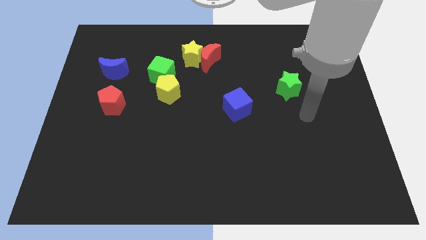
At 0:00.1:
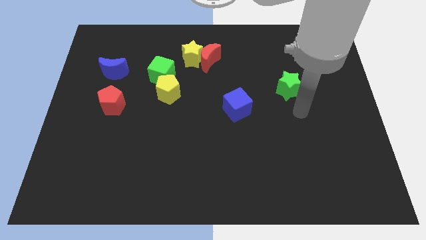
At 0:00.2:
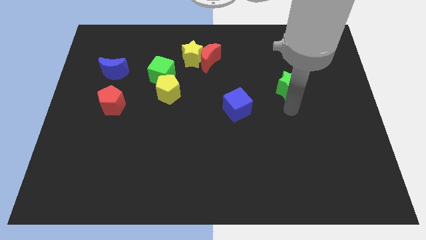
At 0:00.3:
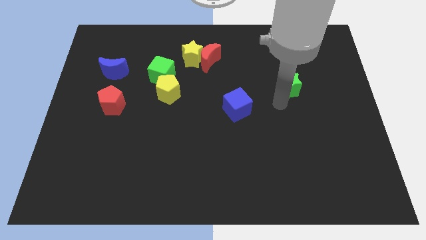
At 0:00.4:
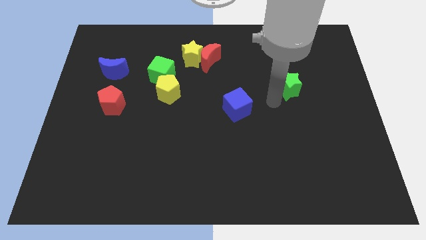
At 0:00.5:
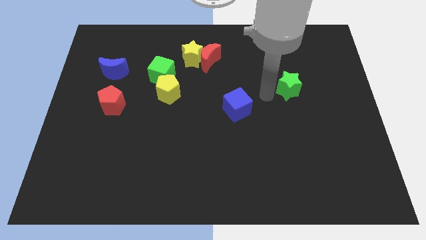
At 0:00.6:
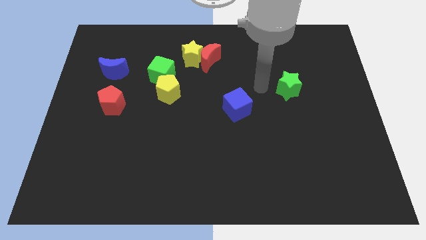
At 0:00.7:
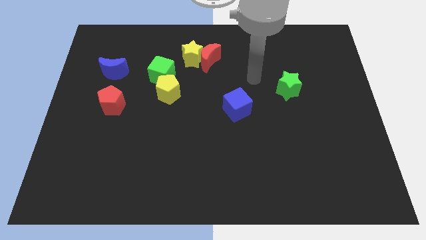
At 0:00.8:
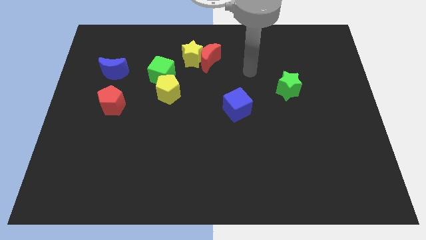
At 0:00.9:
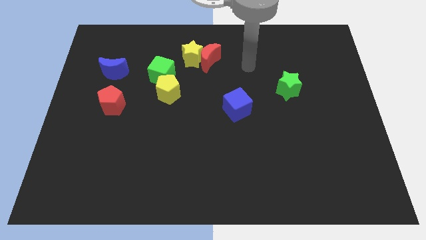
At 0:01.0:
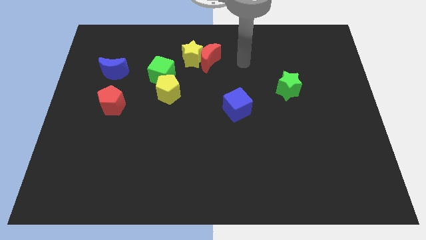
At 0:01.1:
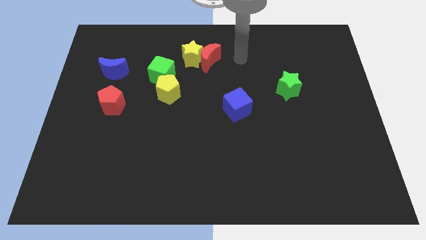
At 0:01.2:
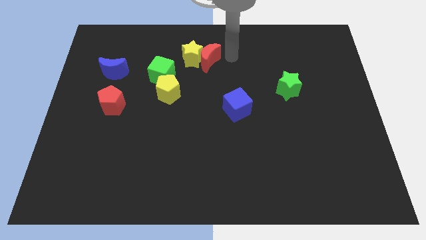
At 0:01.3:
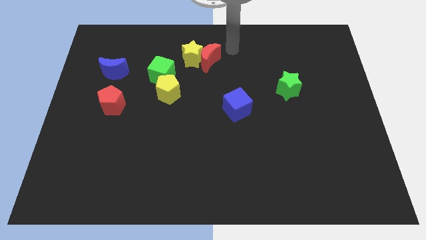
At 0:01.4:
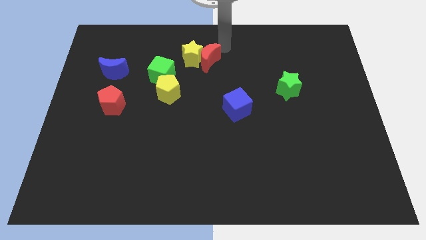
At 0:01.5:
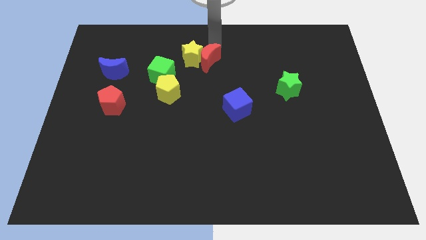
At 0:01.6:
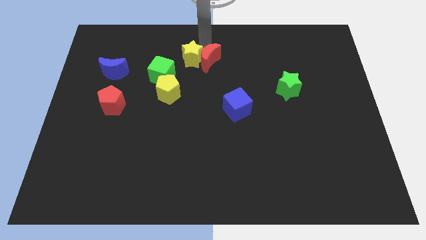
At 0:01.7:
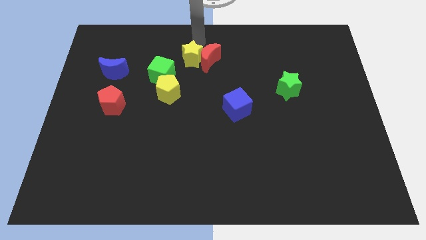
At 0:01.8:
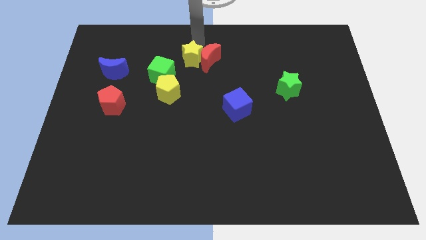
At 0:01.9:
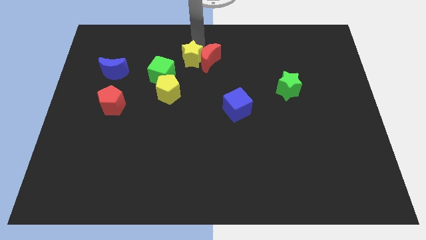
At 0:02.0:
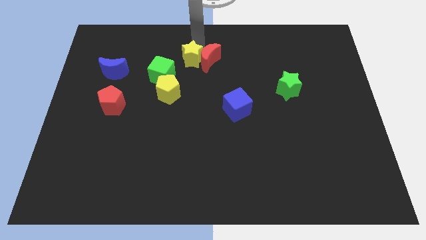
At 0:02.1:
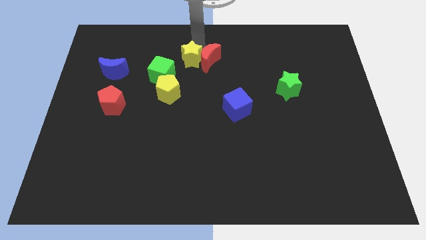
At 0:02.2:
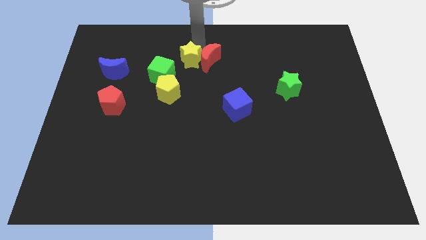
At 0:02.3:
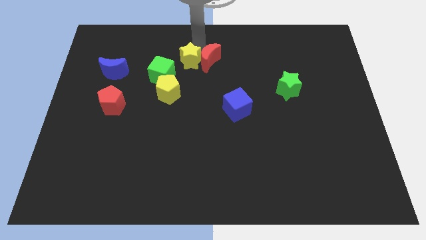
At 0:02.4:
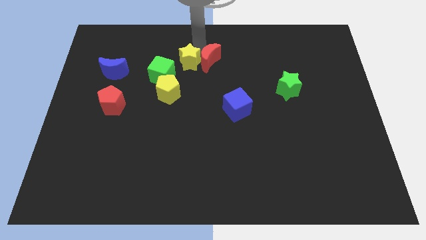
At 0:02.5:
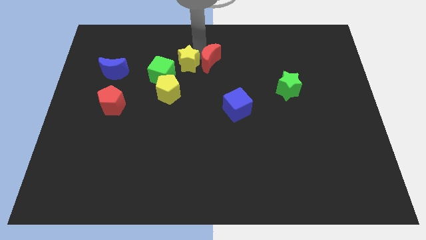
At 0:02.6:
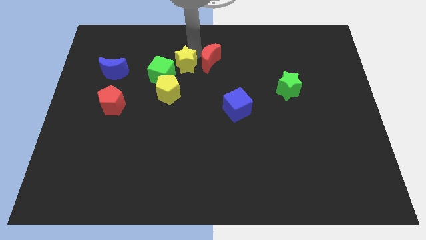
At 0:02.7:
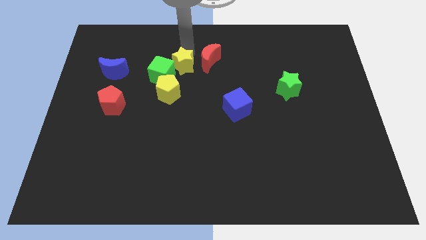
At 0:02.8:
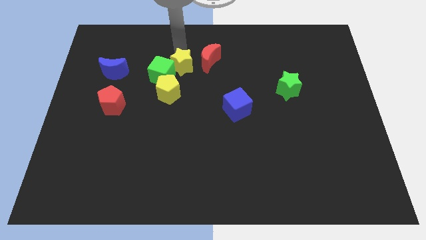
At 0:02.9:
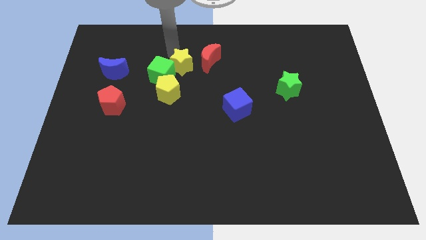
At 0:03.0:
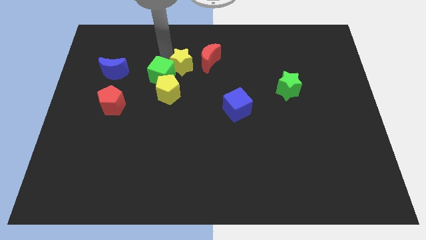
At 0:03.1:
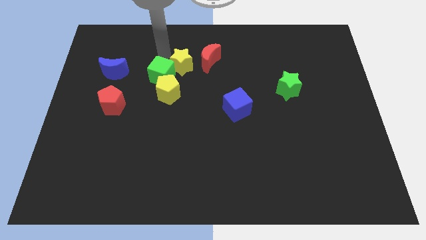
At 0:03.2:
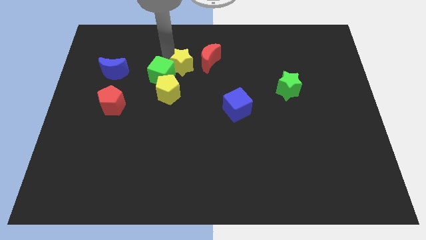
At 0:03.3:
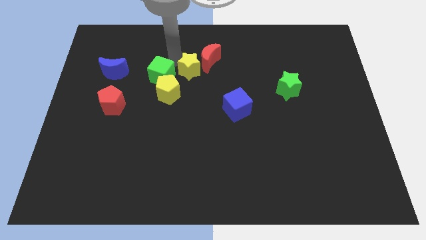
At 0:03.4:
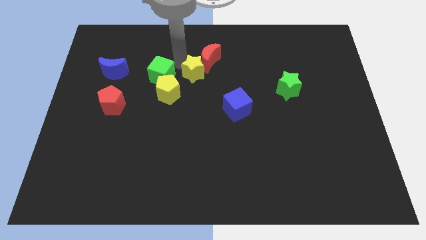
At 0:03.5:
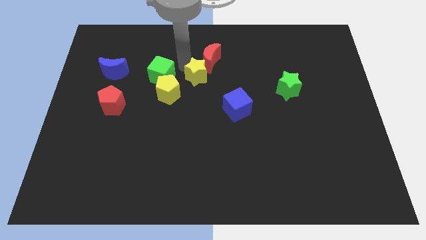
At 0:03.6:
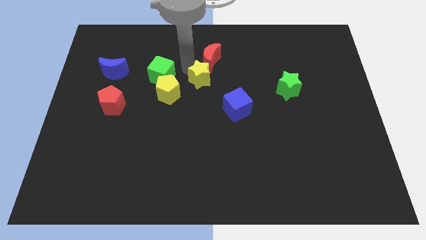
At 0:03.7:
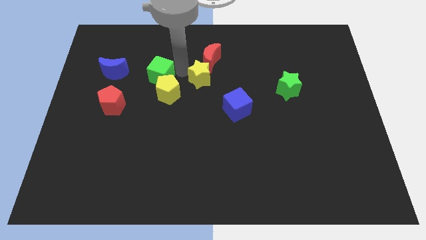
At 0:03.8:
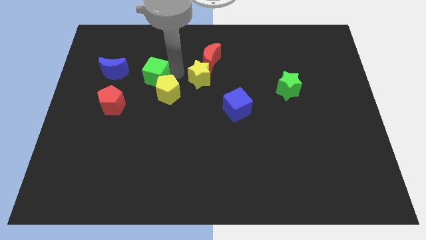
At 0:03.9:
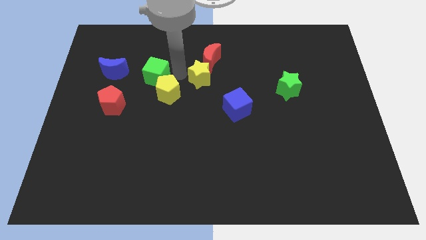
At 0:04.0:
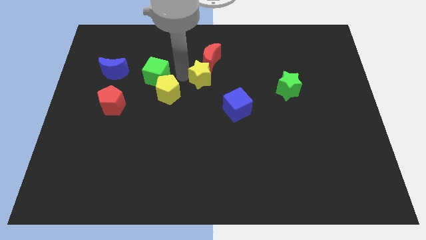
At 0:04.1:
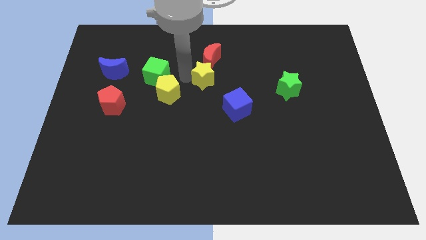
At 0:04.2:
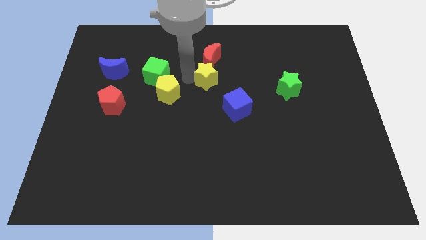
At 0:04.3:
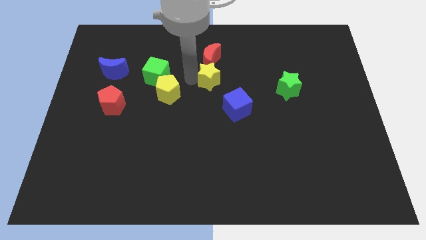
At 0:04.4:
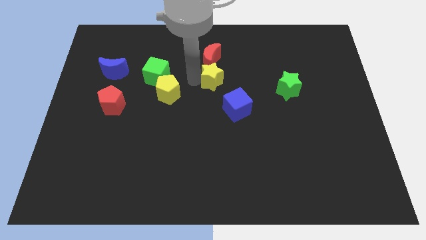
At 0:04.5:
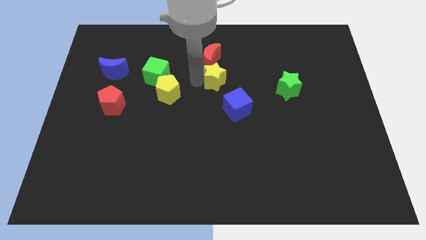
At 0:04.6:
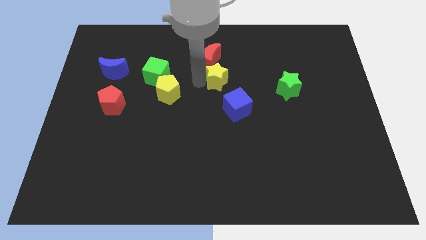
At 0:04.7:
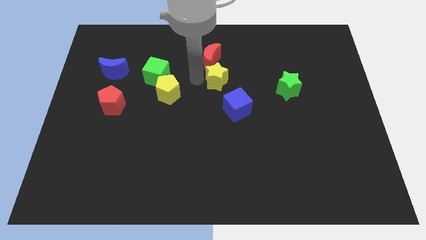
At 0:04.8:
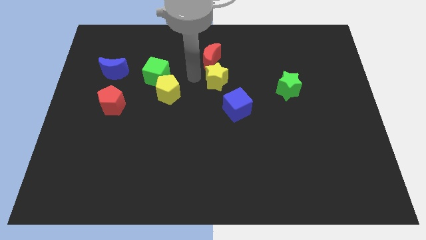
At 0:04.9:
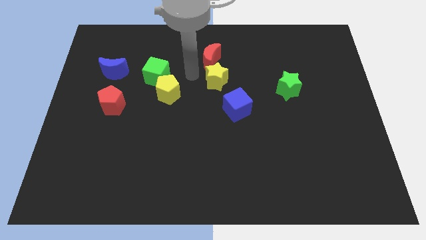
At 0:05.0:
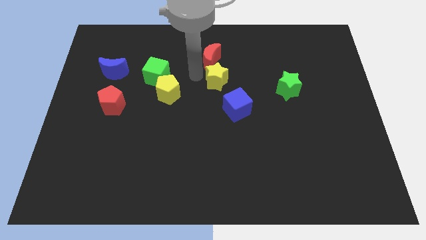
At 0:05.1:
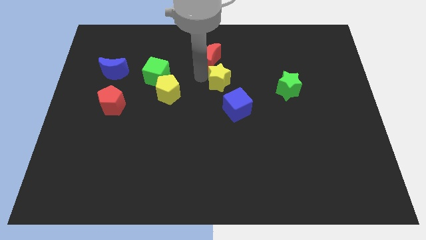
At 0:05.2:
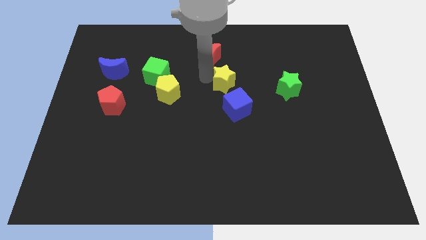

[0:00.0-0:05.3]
push the yellow star to the left side of the green star
